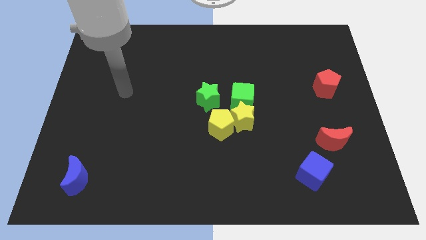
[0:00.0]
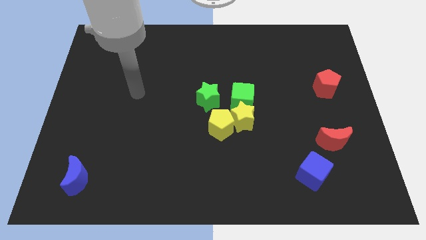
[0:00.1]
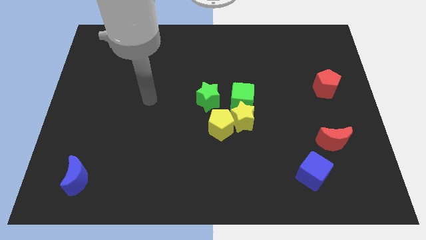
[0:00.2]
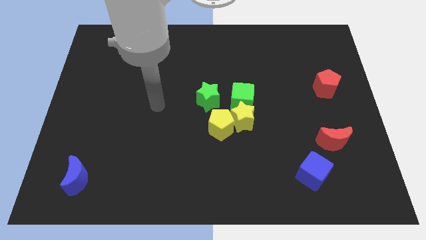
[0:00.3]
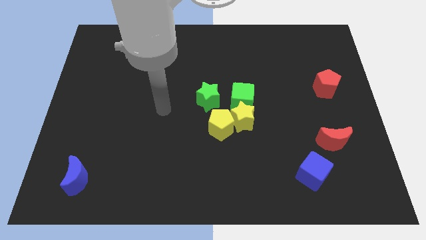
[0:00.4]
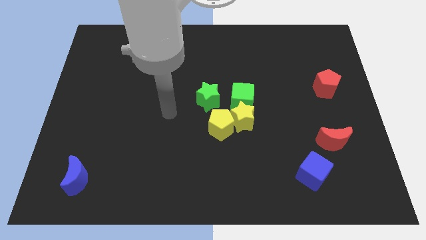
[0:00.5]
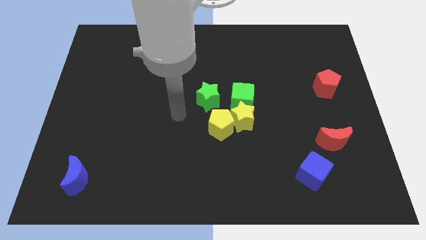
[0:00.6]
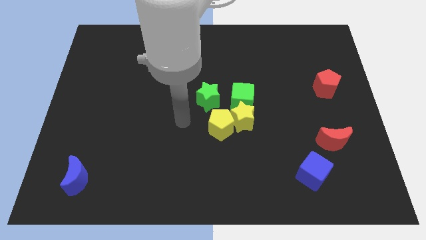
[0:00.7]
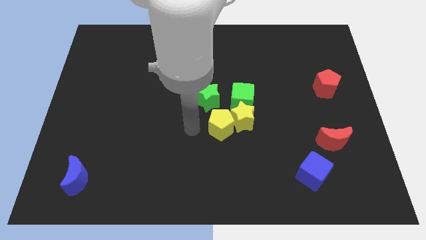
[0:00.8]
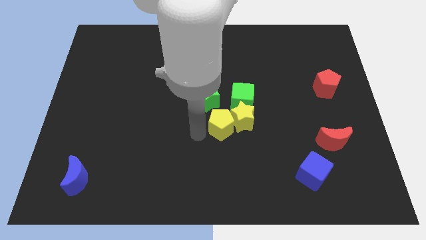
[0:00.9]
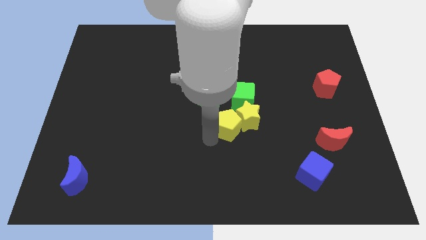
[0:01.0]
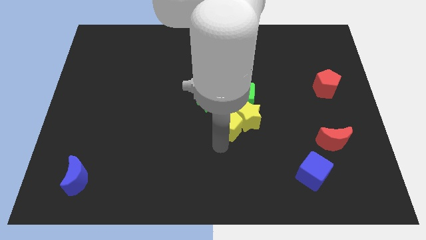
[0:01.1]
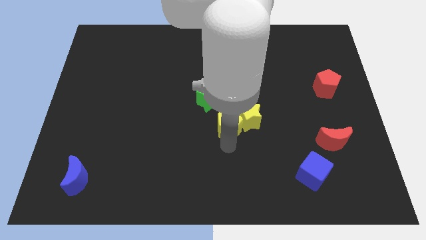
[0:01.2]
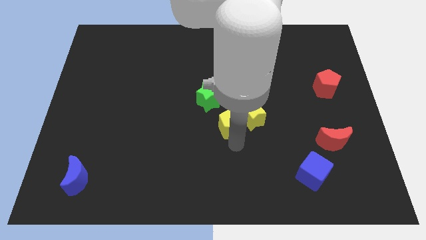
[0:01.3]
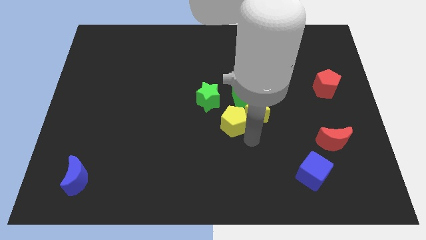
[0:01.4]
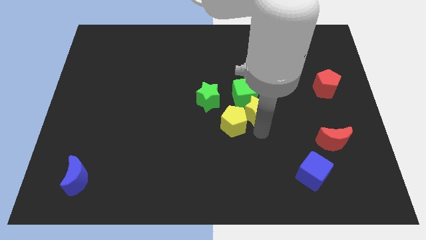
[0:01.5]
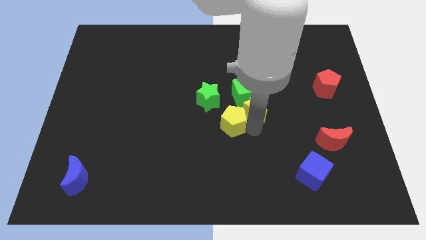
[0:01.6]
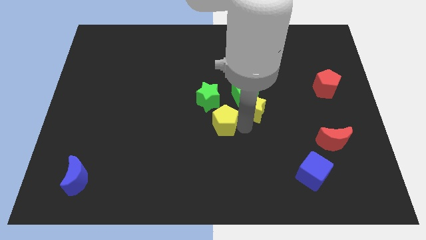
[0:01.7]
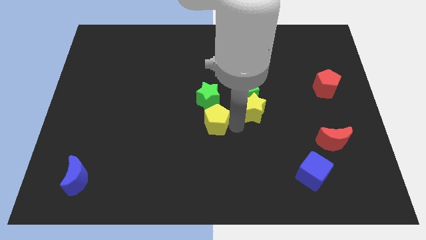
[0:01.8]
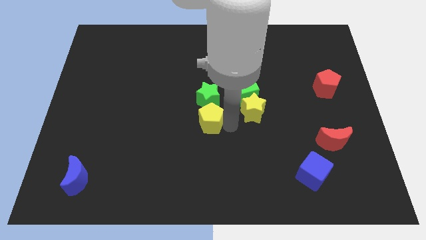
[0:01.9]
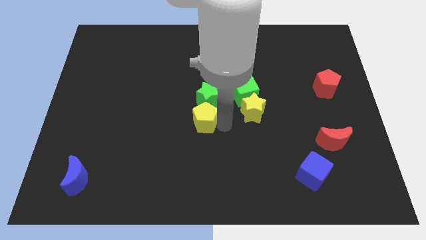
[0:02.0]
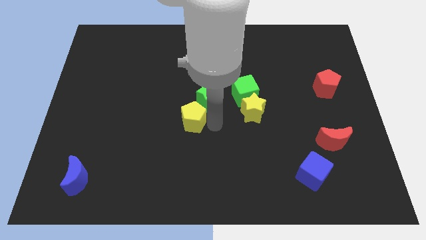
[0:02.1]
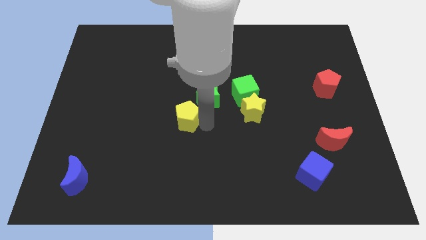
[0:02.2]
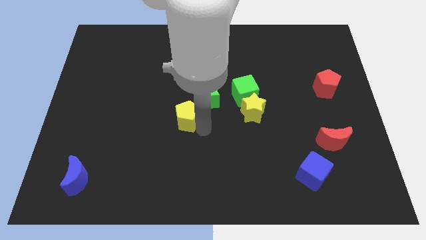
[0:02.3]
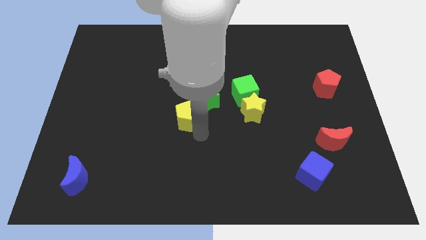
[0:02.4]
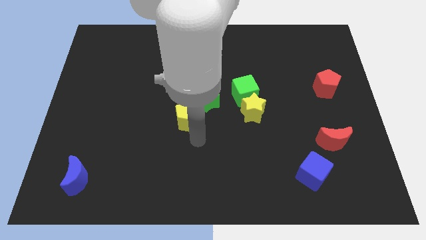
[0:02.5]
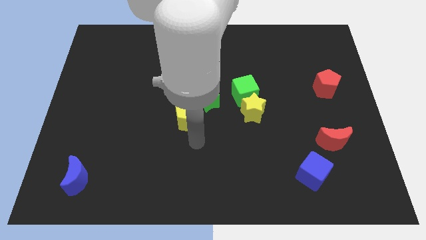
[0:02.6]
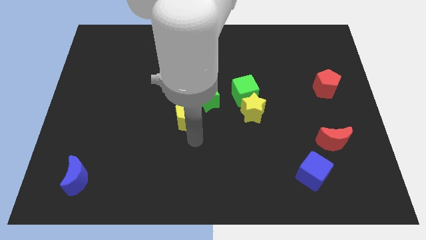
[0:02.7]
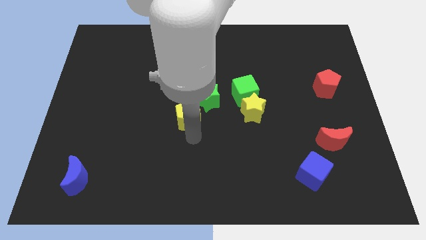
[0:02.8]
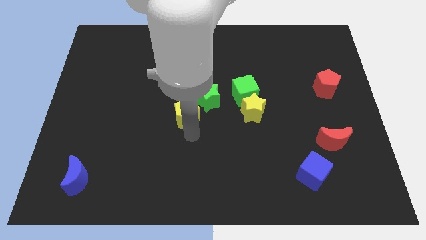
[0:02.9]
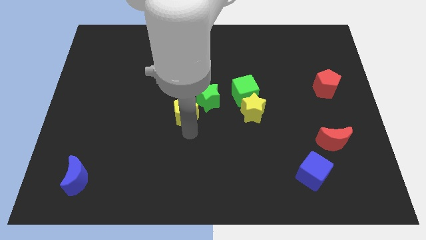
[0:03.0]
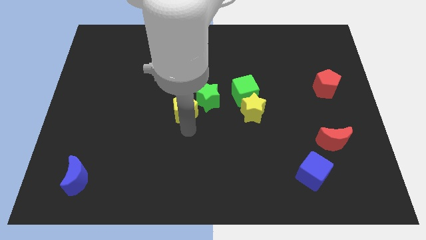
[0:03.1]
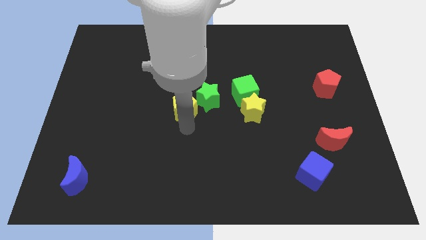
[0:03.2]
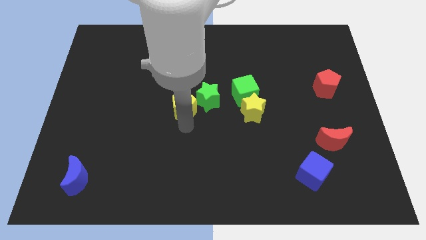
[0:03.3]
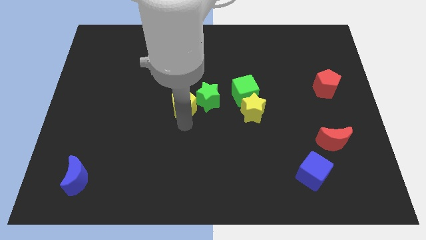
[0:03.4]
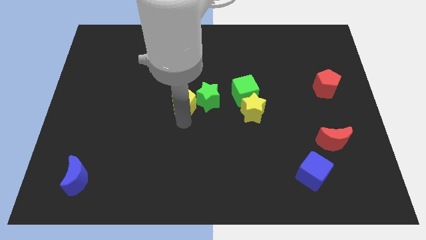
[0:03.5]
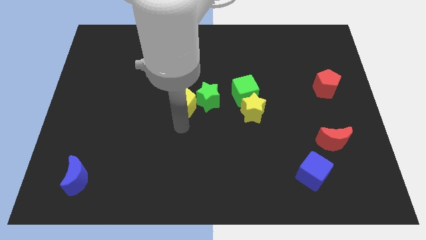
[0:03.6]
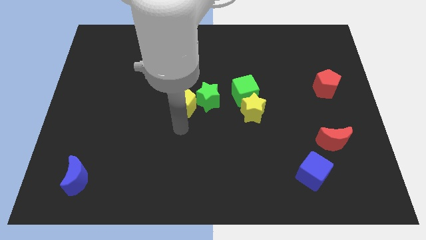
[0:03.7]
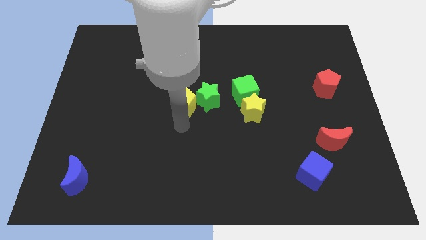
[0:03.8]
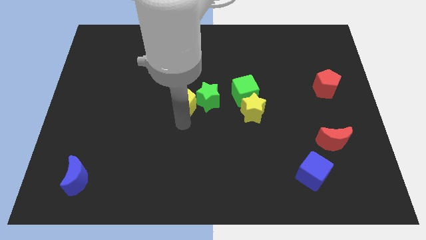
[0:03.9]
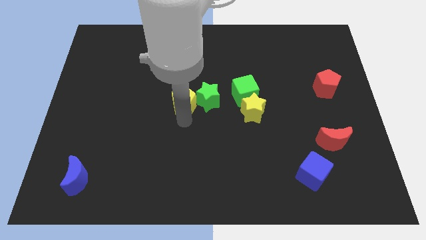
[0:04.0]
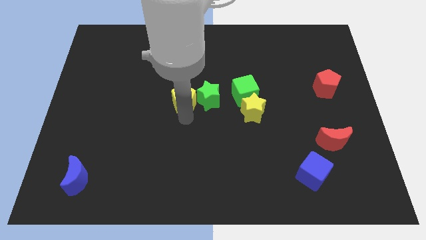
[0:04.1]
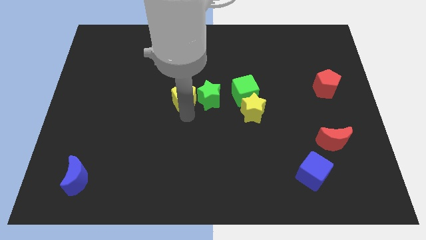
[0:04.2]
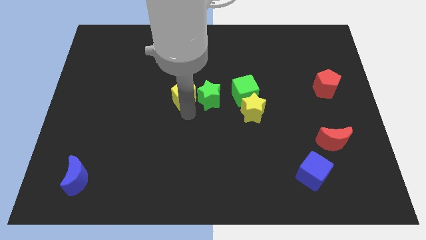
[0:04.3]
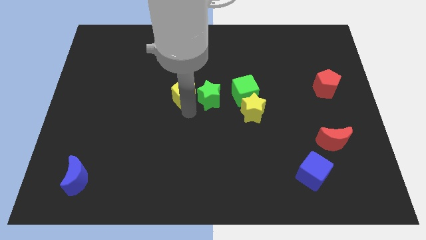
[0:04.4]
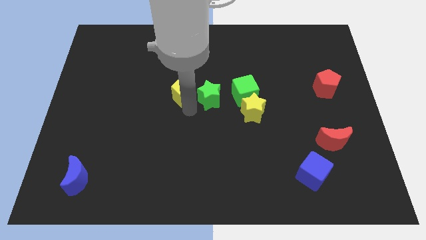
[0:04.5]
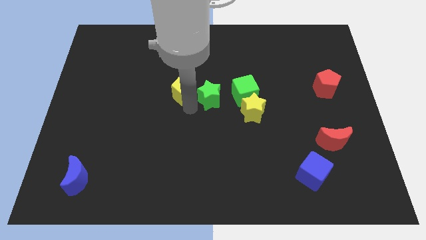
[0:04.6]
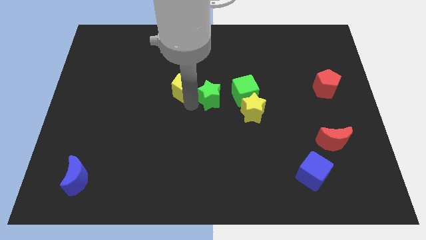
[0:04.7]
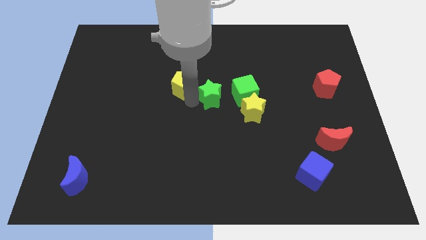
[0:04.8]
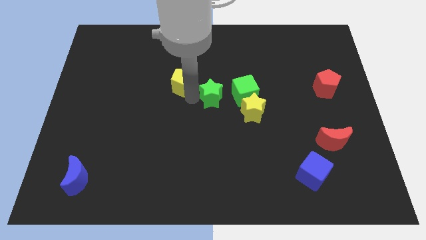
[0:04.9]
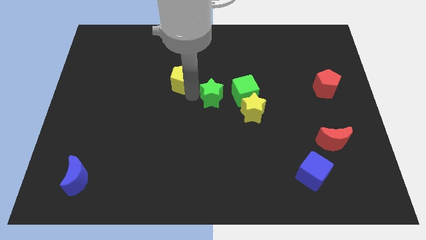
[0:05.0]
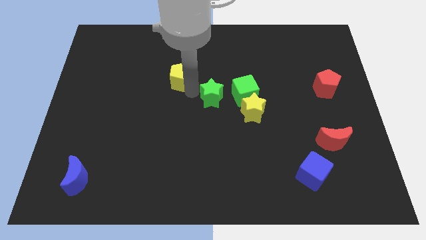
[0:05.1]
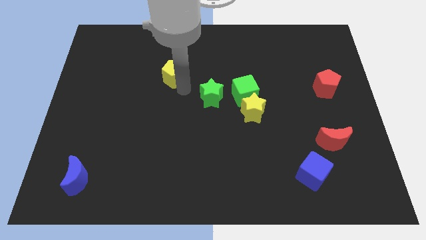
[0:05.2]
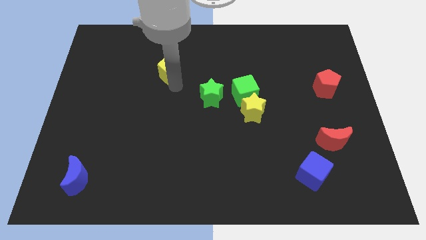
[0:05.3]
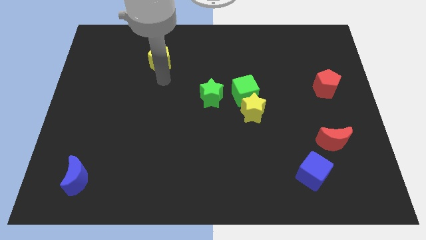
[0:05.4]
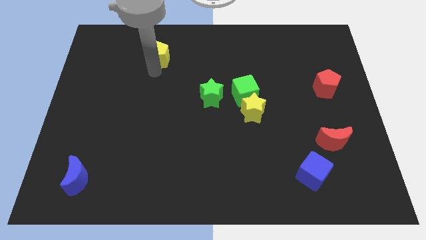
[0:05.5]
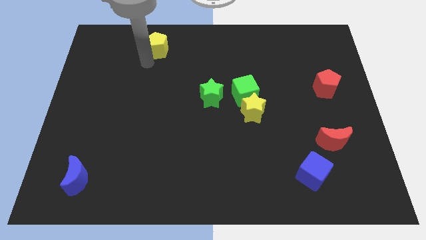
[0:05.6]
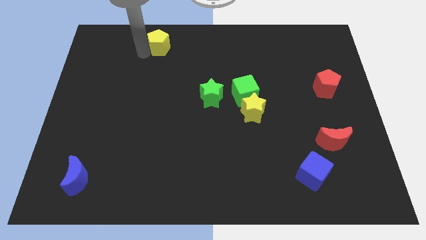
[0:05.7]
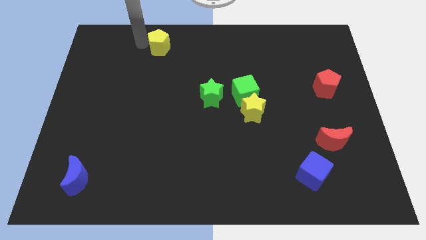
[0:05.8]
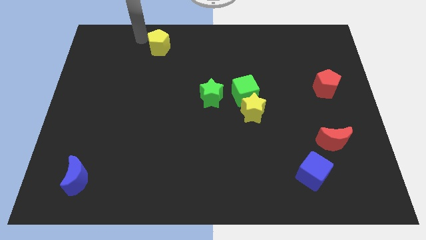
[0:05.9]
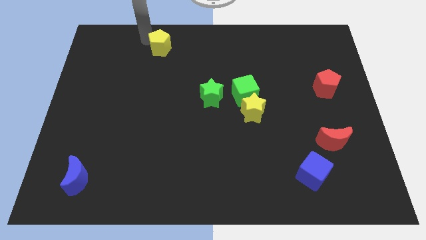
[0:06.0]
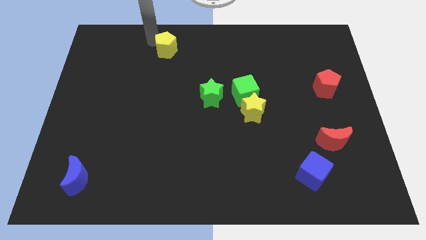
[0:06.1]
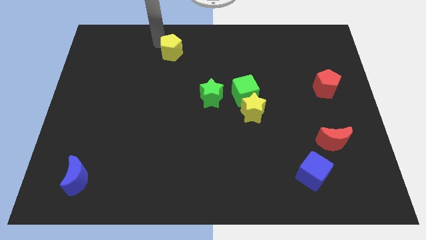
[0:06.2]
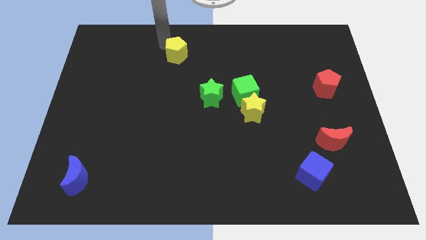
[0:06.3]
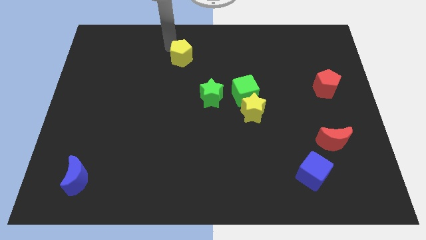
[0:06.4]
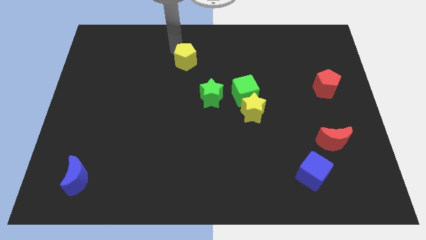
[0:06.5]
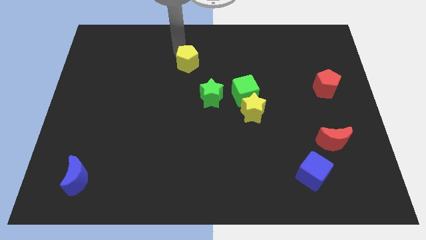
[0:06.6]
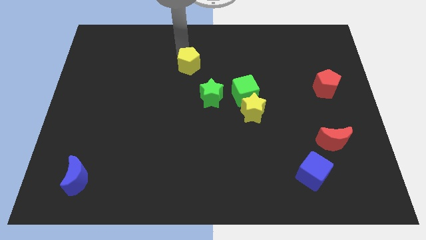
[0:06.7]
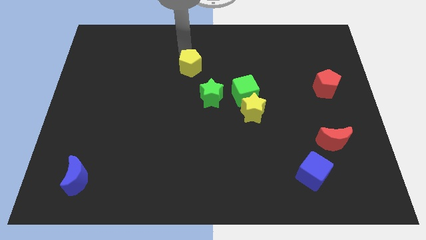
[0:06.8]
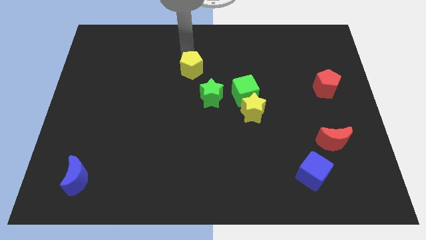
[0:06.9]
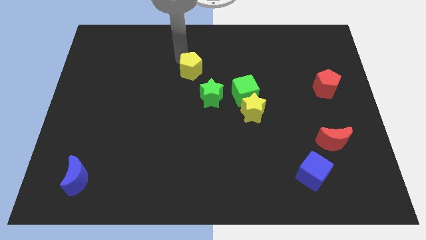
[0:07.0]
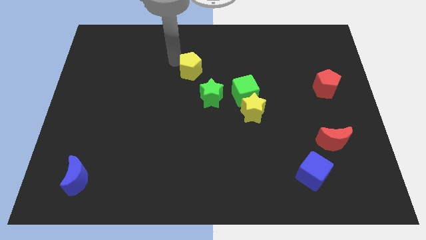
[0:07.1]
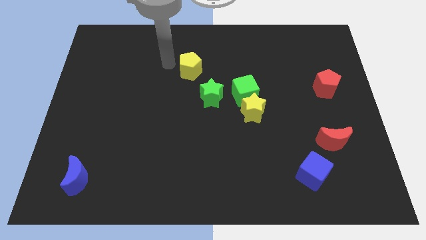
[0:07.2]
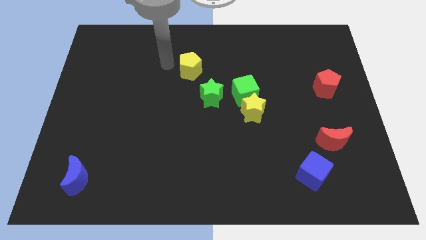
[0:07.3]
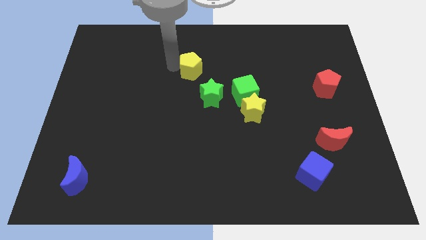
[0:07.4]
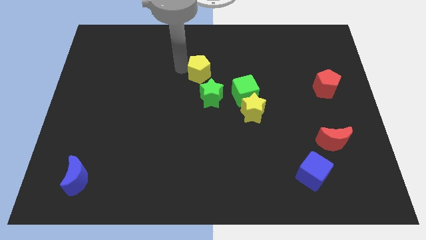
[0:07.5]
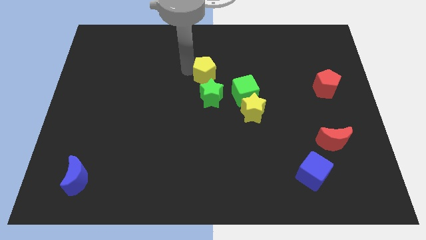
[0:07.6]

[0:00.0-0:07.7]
move the yellow pentagon diagonally up and to the left of the green cube
